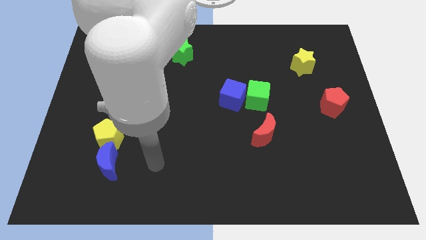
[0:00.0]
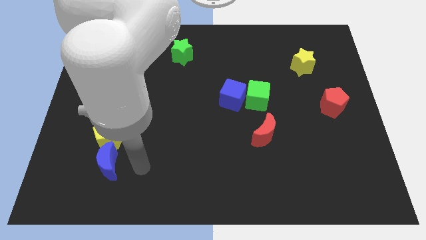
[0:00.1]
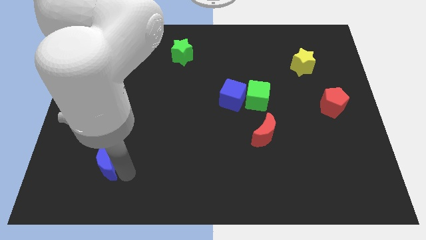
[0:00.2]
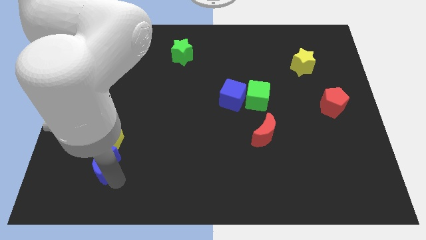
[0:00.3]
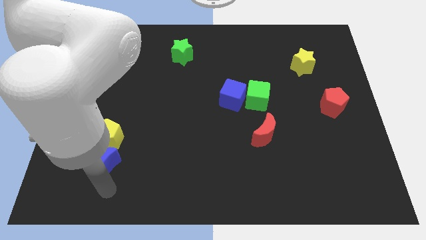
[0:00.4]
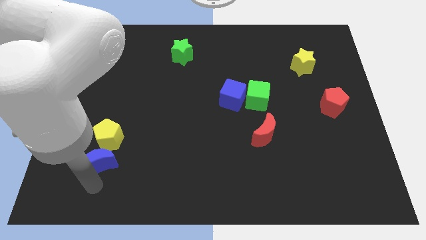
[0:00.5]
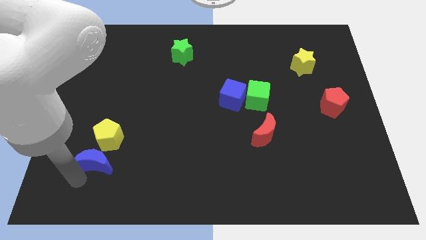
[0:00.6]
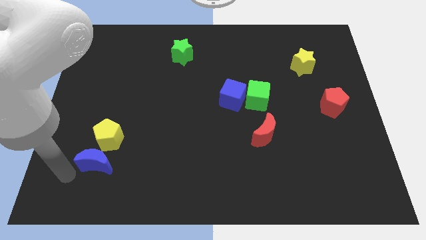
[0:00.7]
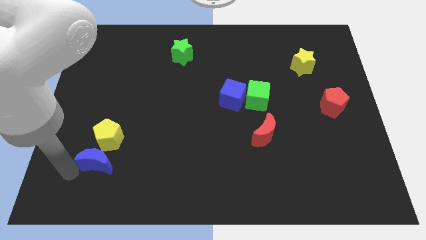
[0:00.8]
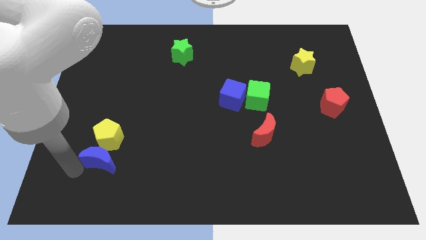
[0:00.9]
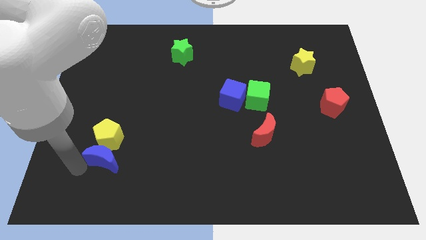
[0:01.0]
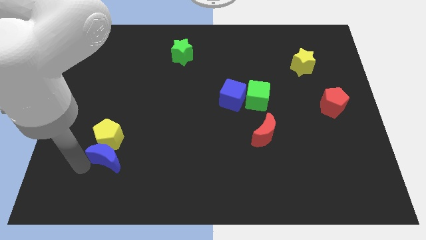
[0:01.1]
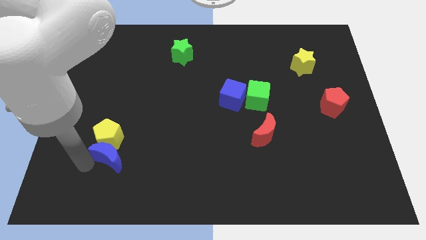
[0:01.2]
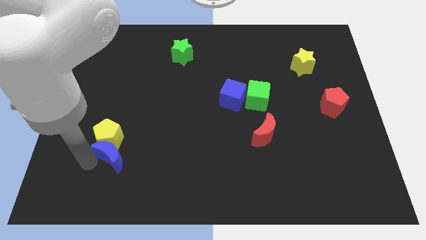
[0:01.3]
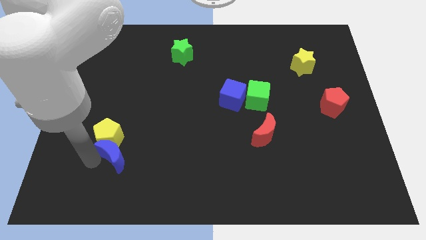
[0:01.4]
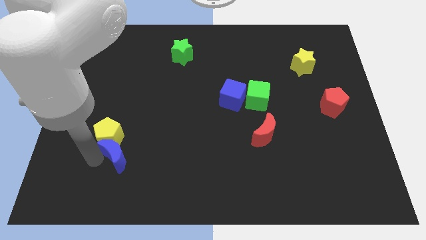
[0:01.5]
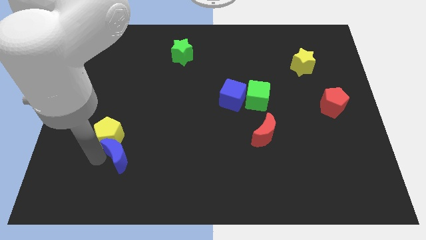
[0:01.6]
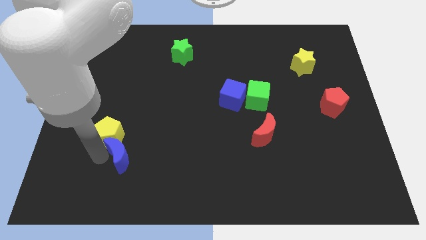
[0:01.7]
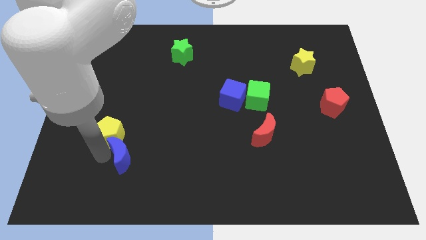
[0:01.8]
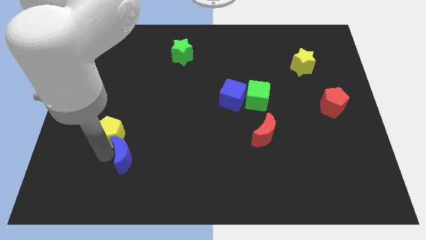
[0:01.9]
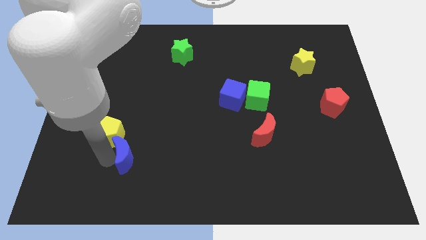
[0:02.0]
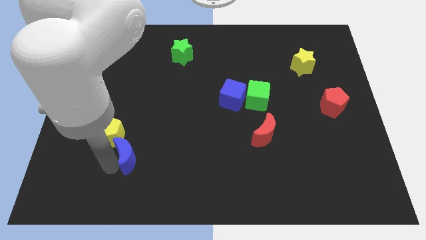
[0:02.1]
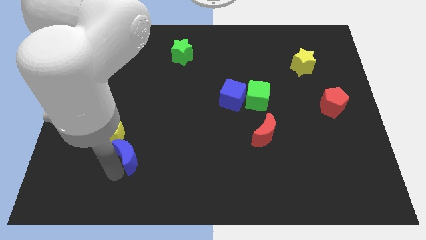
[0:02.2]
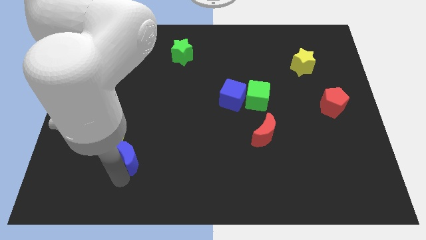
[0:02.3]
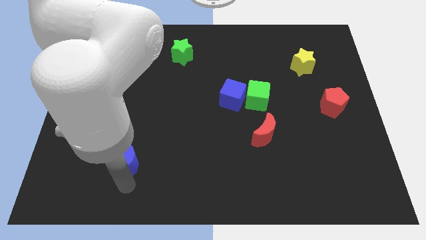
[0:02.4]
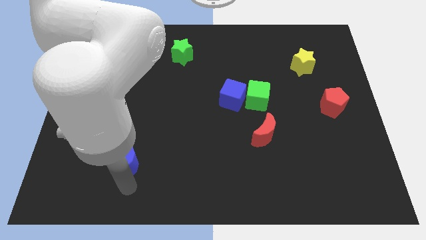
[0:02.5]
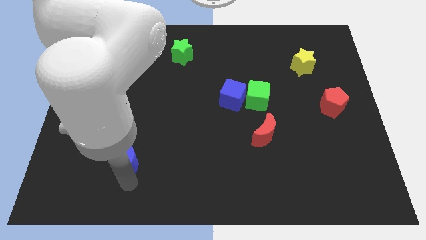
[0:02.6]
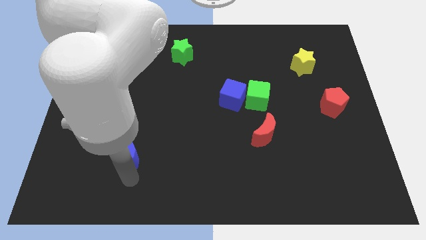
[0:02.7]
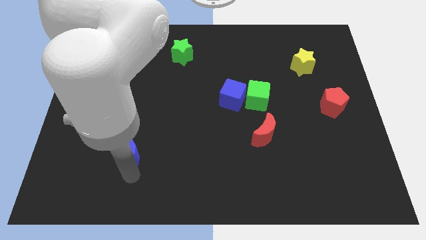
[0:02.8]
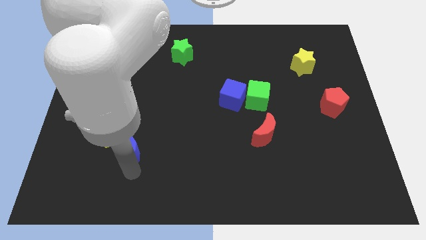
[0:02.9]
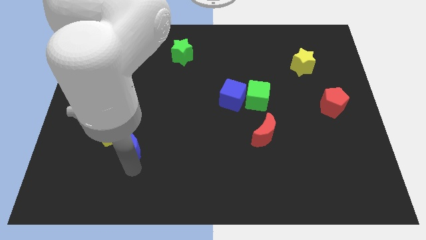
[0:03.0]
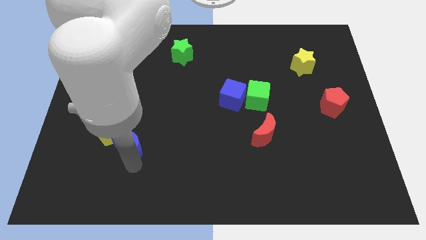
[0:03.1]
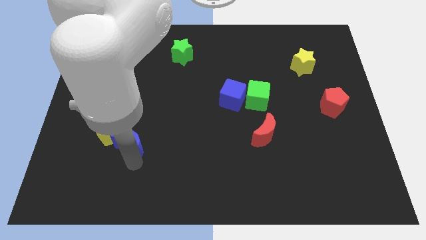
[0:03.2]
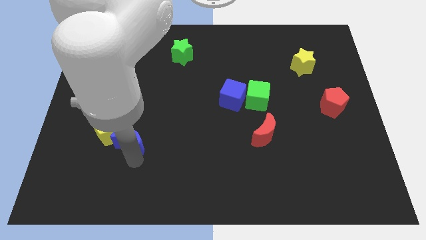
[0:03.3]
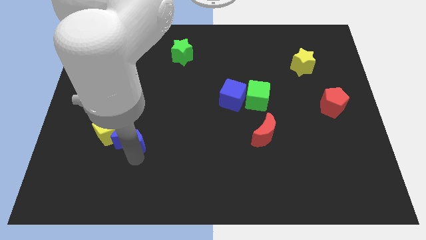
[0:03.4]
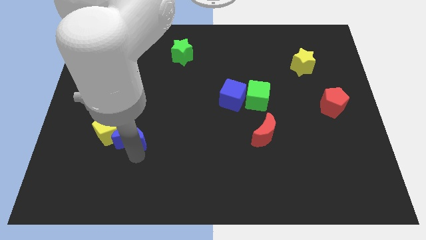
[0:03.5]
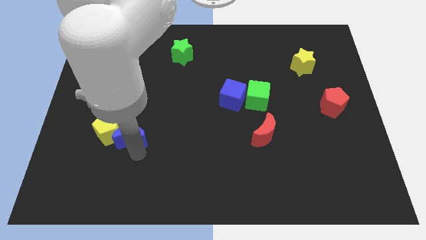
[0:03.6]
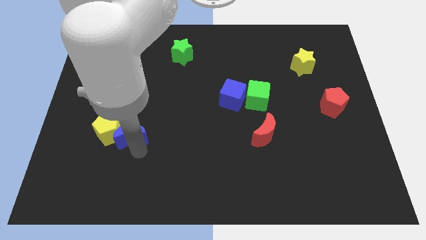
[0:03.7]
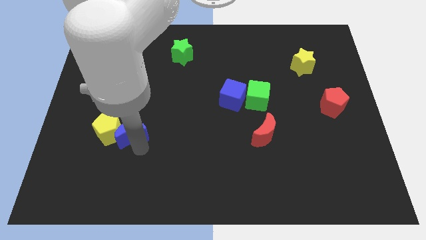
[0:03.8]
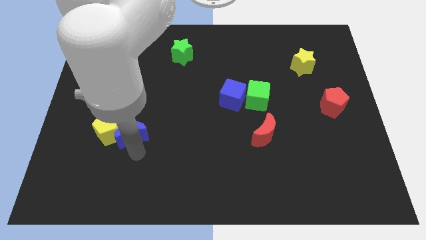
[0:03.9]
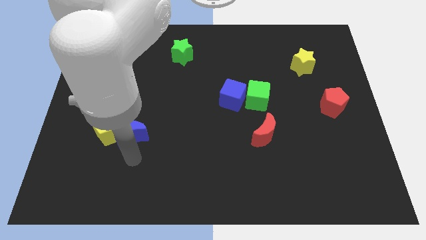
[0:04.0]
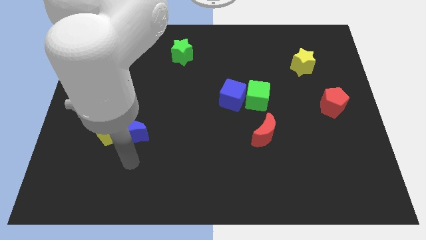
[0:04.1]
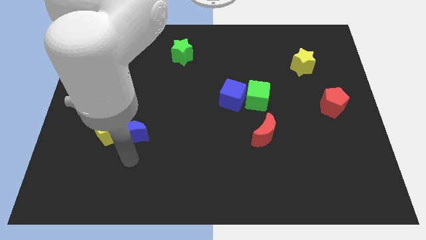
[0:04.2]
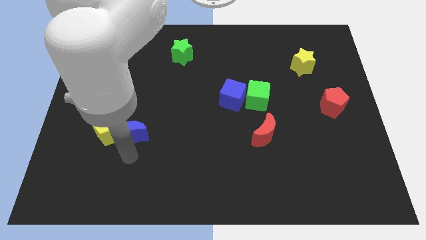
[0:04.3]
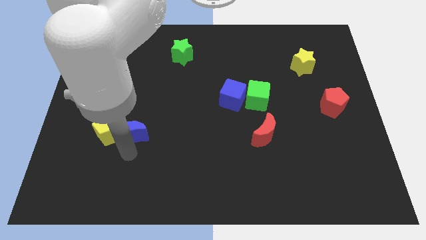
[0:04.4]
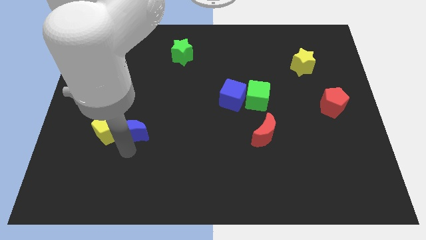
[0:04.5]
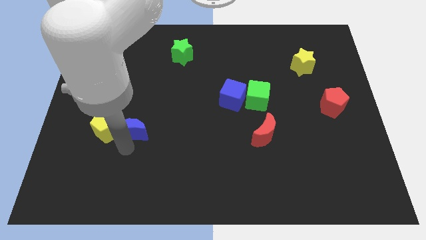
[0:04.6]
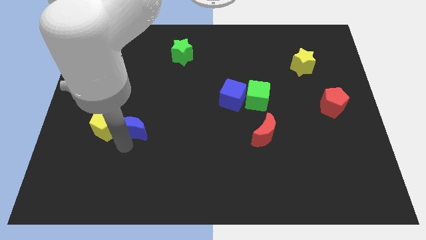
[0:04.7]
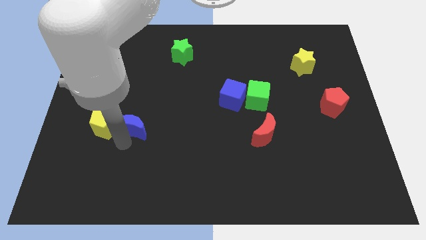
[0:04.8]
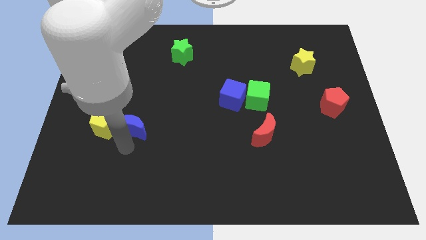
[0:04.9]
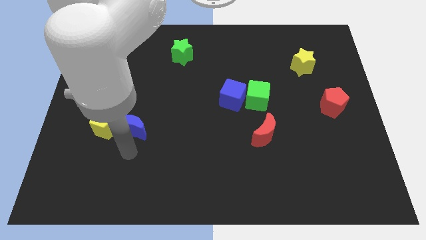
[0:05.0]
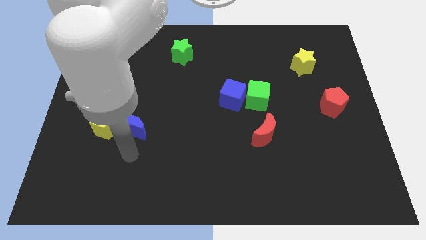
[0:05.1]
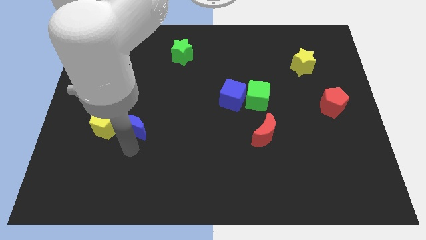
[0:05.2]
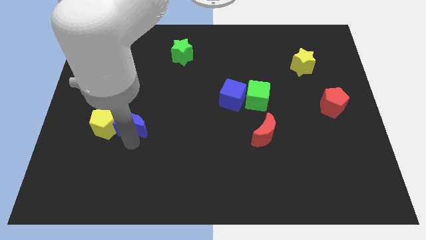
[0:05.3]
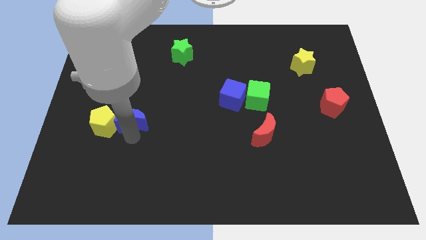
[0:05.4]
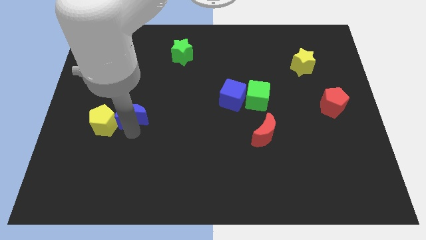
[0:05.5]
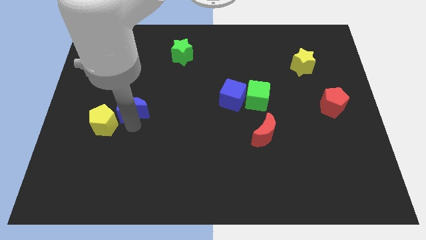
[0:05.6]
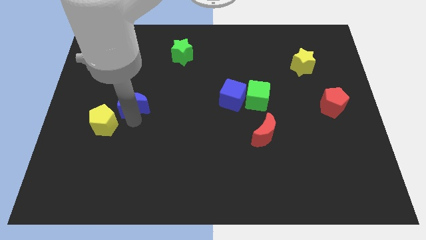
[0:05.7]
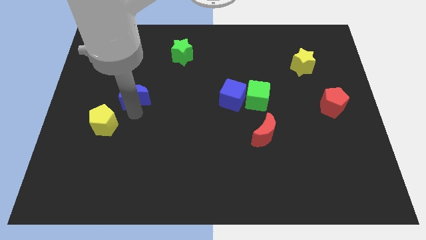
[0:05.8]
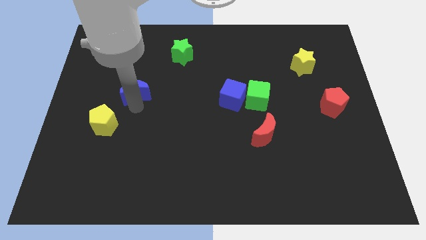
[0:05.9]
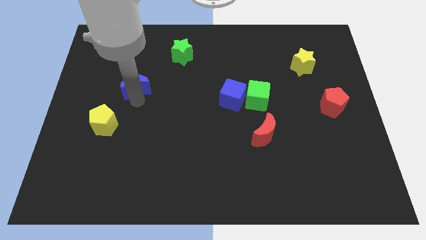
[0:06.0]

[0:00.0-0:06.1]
move the blue moon up

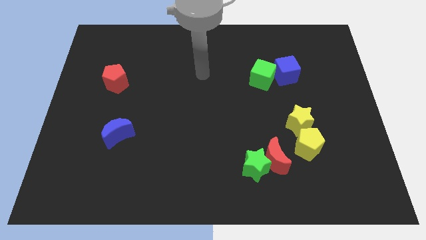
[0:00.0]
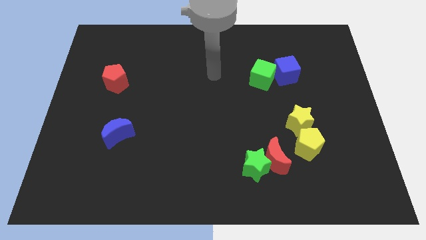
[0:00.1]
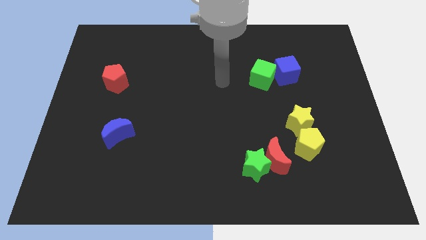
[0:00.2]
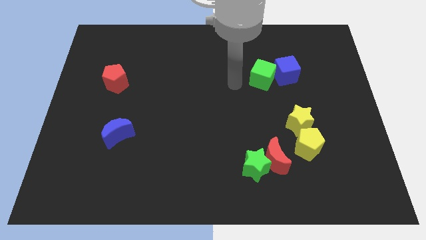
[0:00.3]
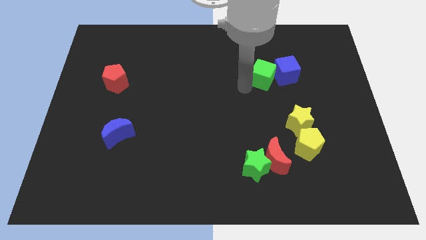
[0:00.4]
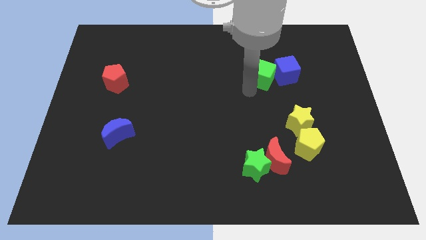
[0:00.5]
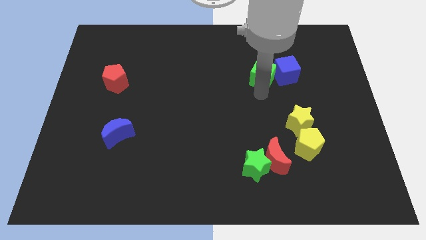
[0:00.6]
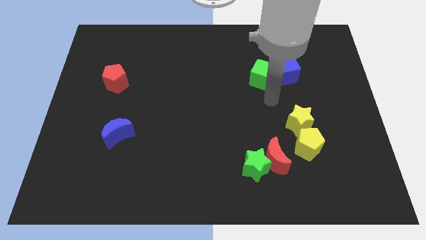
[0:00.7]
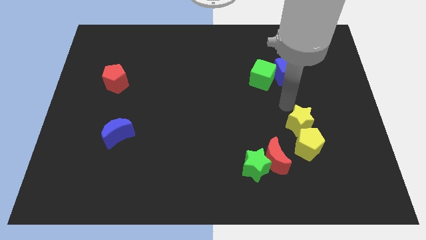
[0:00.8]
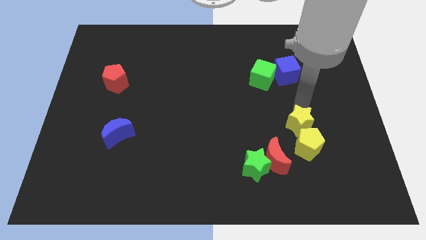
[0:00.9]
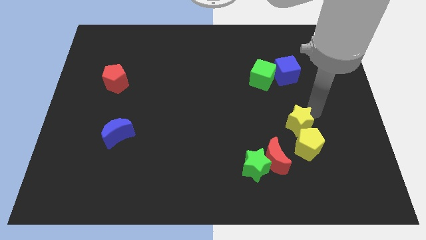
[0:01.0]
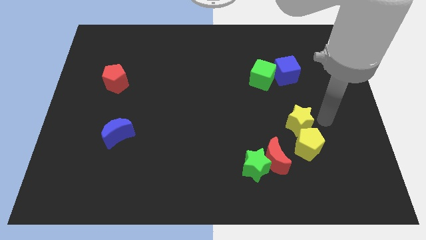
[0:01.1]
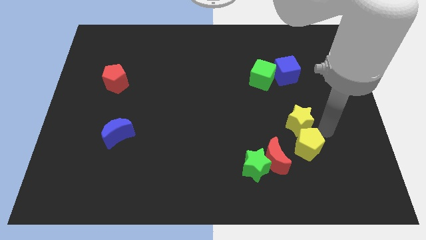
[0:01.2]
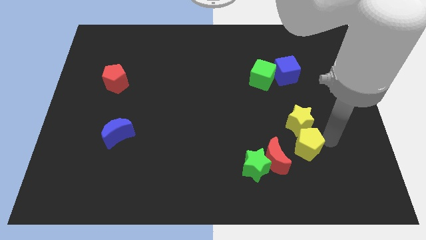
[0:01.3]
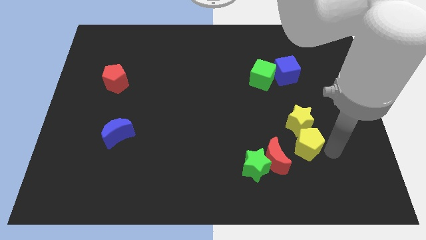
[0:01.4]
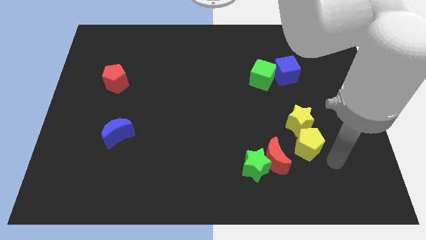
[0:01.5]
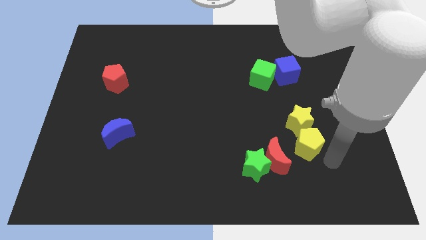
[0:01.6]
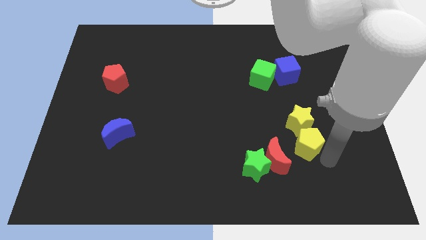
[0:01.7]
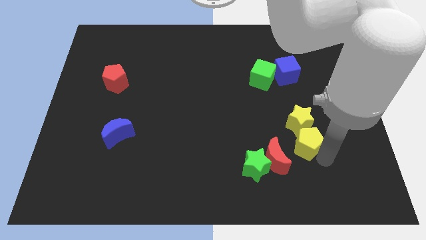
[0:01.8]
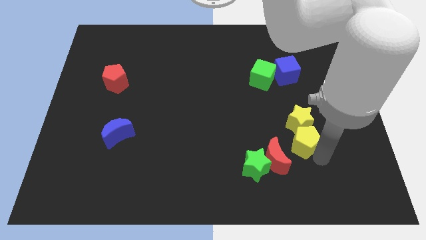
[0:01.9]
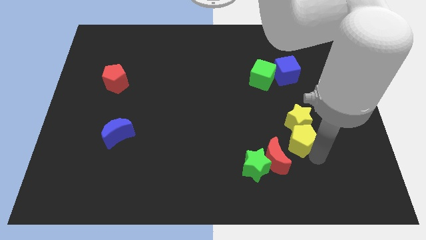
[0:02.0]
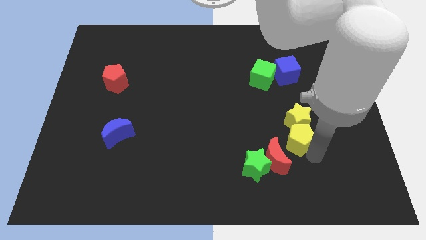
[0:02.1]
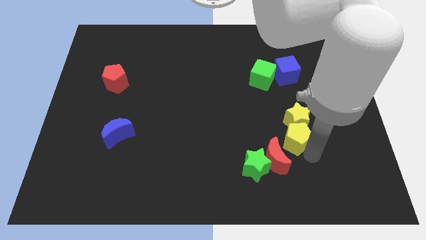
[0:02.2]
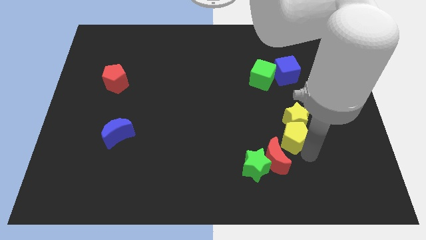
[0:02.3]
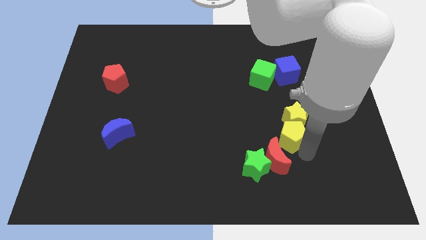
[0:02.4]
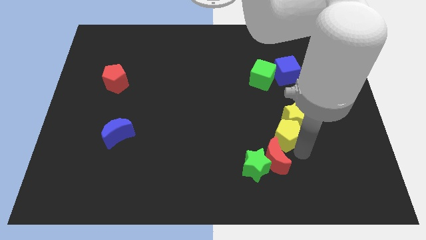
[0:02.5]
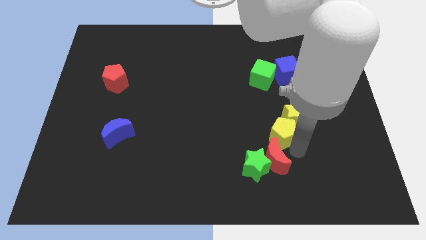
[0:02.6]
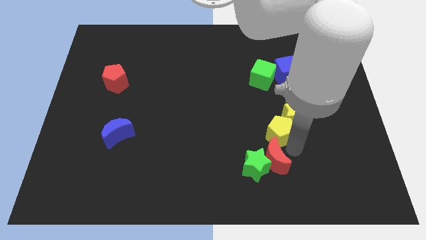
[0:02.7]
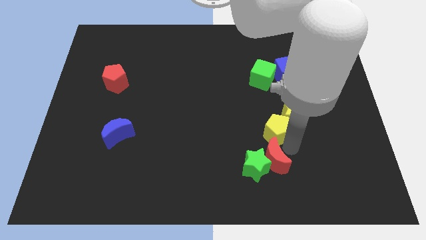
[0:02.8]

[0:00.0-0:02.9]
slightly push the yellow pentagon diagonally up and left
